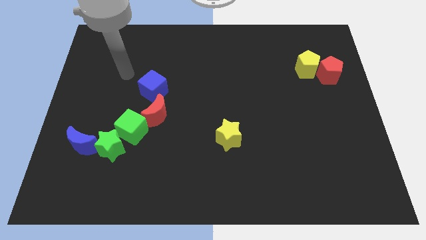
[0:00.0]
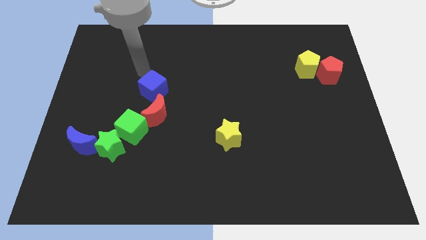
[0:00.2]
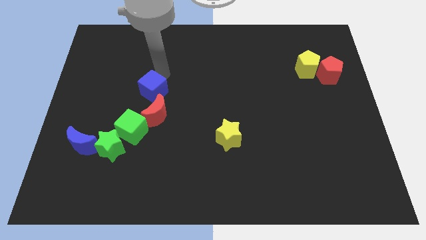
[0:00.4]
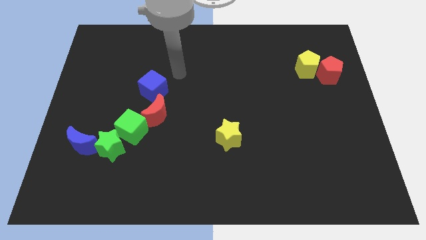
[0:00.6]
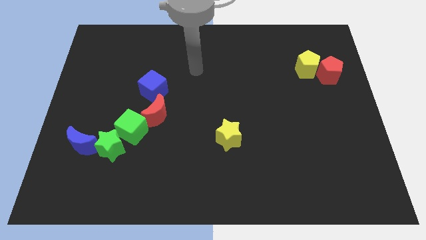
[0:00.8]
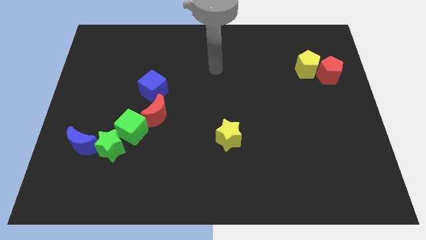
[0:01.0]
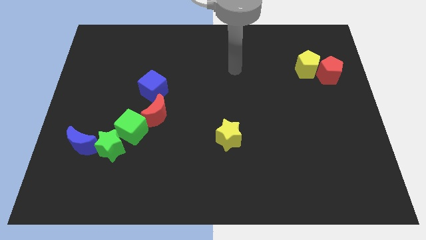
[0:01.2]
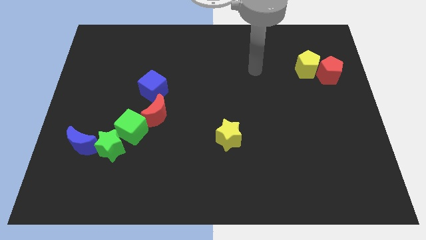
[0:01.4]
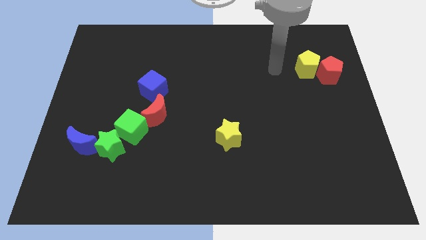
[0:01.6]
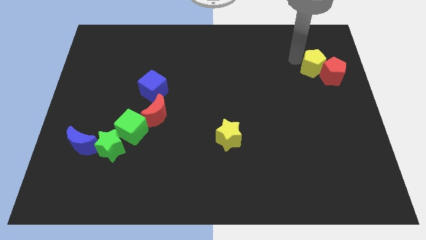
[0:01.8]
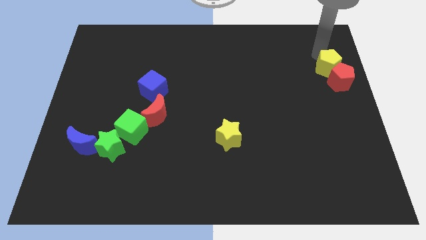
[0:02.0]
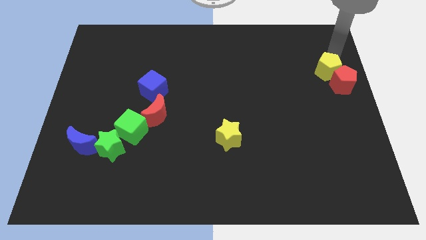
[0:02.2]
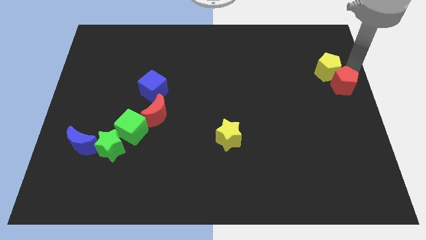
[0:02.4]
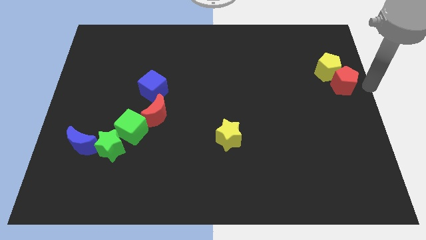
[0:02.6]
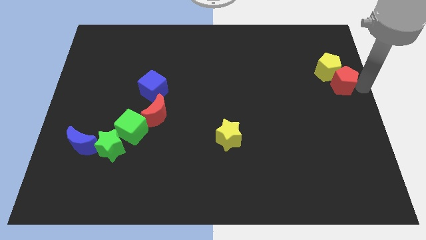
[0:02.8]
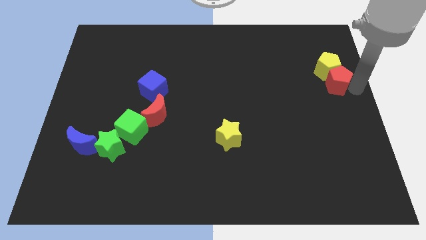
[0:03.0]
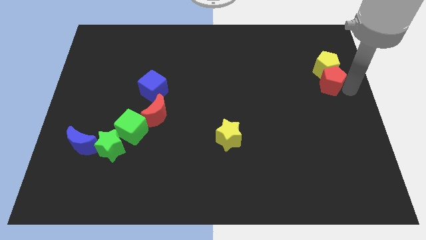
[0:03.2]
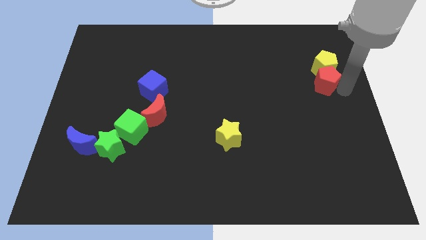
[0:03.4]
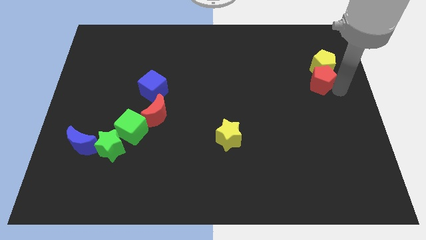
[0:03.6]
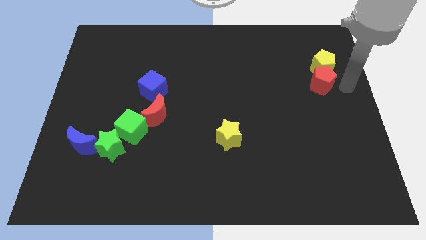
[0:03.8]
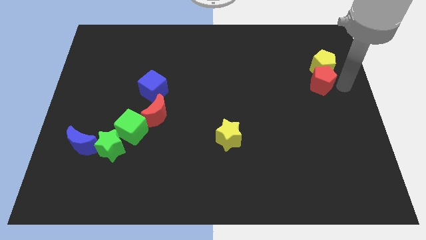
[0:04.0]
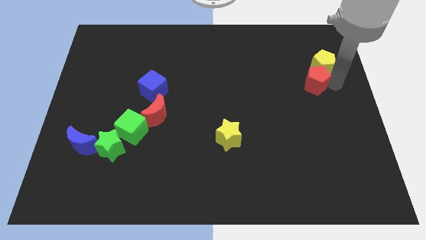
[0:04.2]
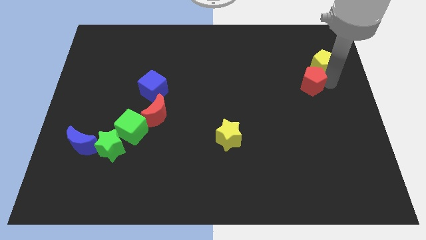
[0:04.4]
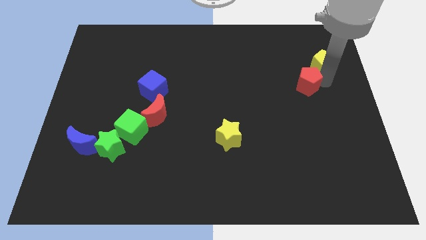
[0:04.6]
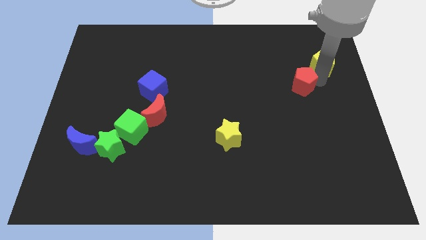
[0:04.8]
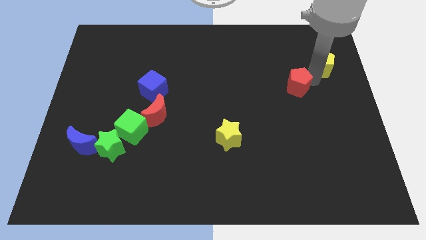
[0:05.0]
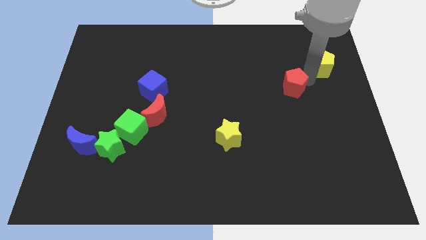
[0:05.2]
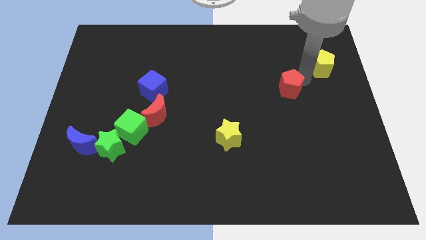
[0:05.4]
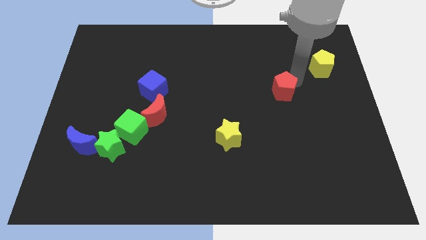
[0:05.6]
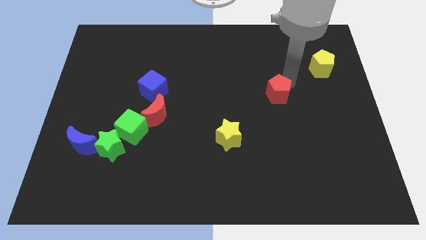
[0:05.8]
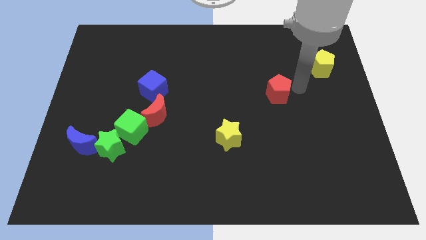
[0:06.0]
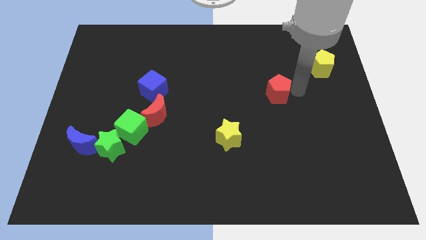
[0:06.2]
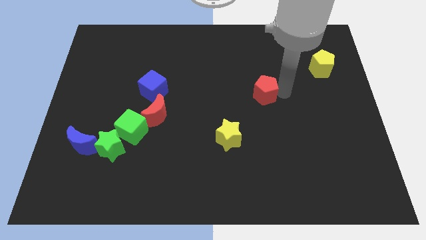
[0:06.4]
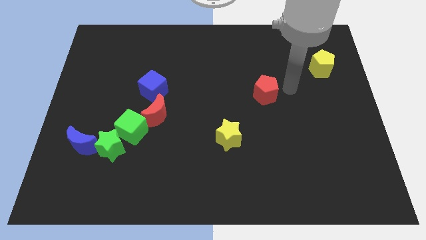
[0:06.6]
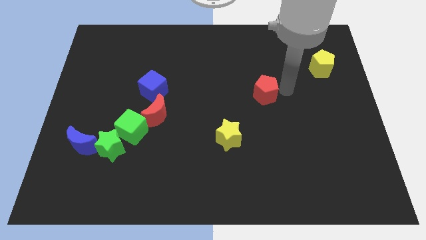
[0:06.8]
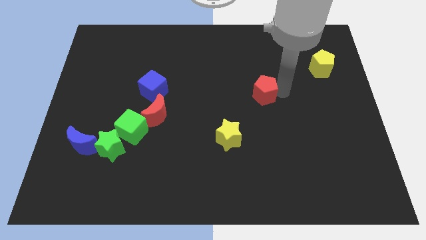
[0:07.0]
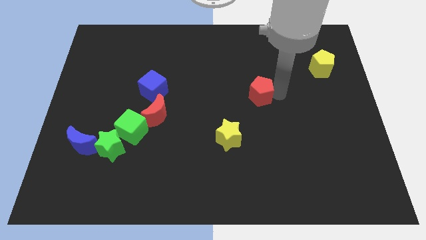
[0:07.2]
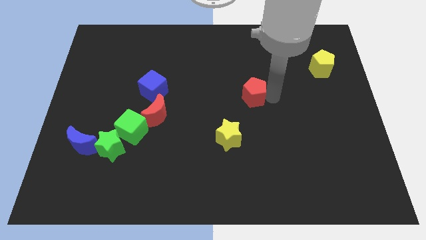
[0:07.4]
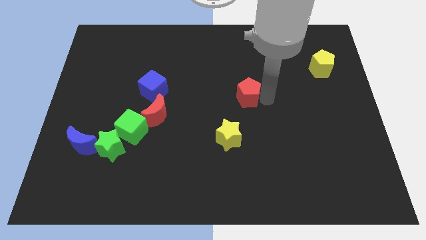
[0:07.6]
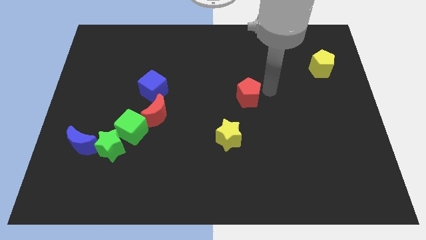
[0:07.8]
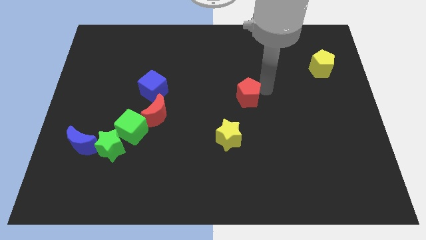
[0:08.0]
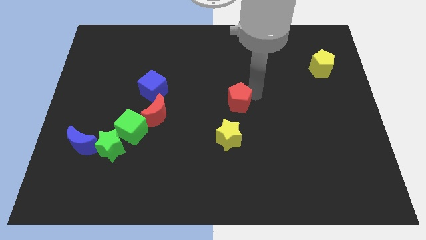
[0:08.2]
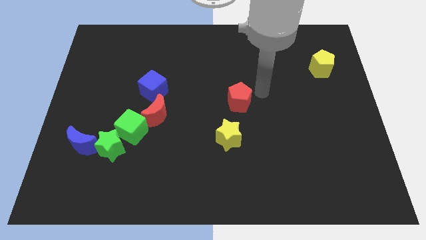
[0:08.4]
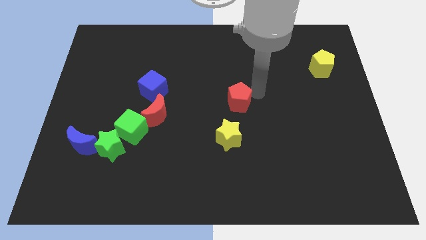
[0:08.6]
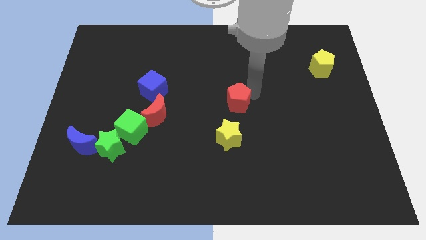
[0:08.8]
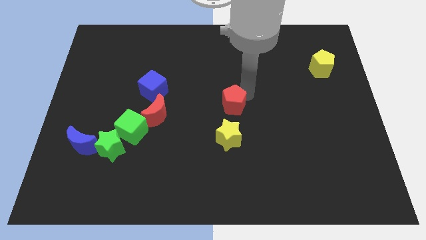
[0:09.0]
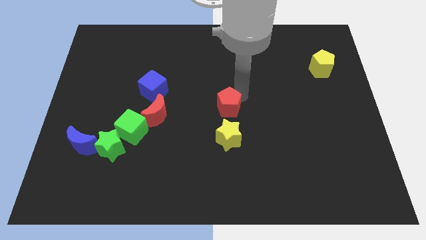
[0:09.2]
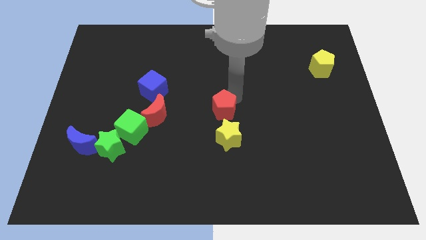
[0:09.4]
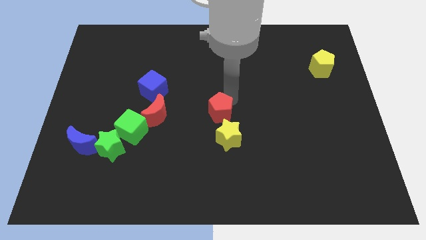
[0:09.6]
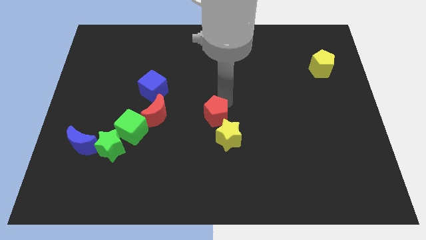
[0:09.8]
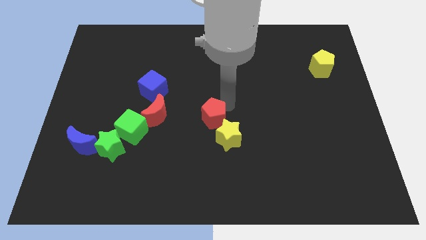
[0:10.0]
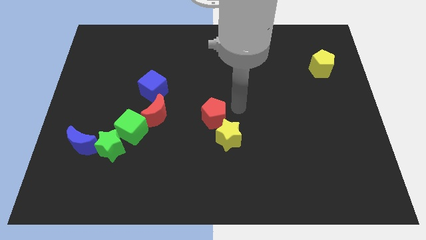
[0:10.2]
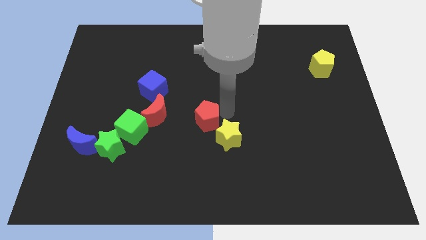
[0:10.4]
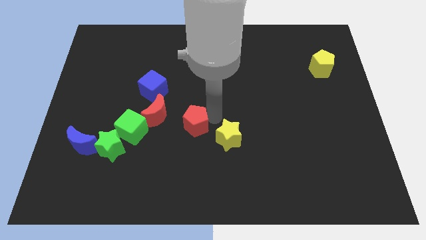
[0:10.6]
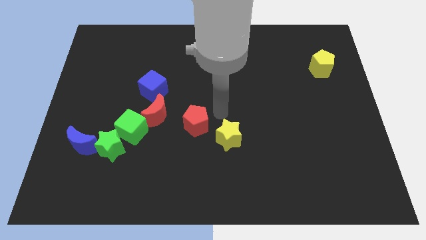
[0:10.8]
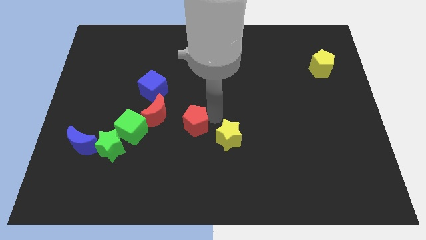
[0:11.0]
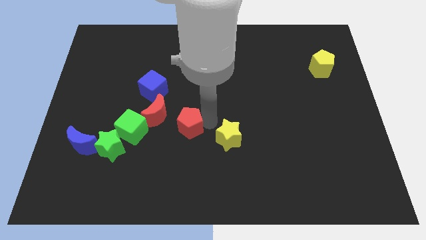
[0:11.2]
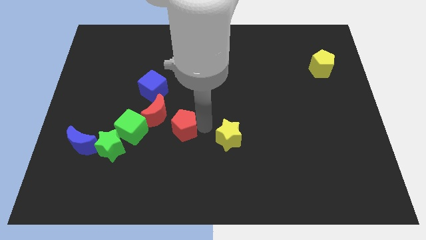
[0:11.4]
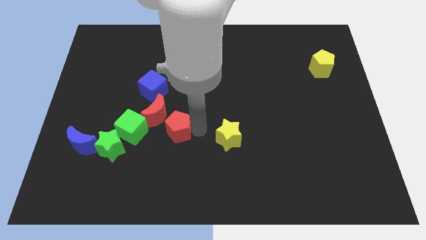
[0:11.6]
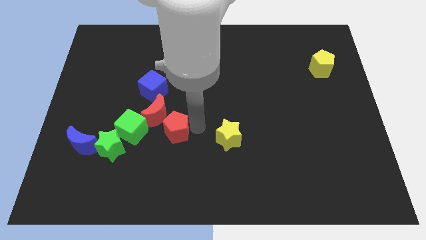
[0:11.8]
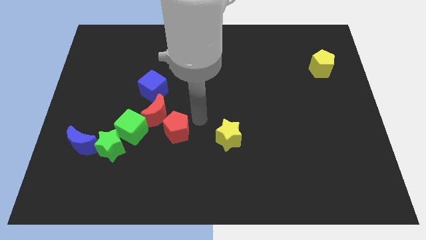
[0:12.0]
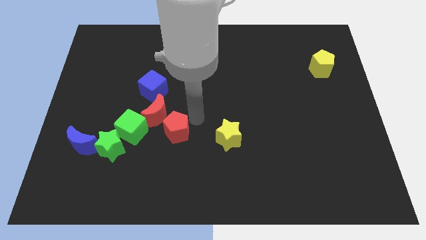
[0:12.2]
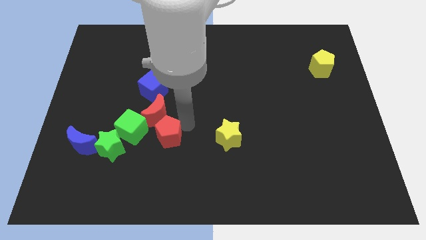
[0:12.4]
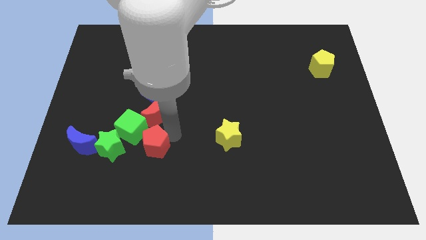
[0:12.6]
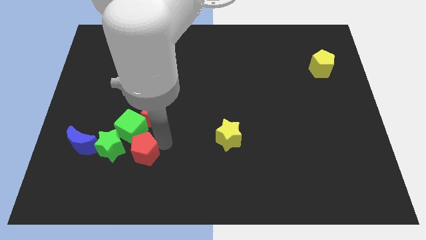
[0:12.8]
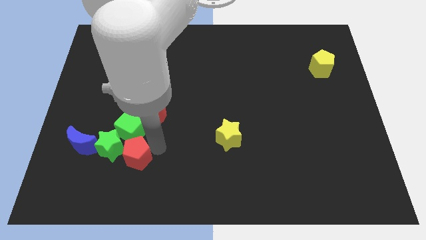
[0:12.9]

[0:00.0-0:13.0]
move the red pentagon close to the green star

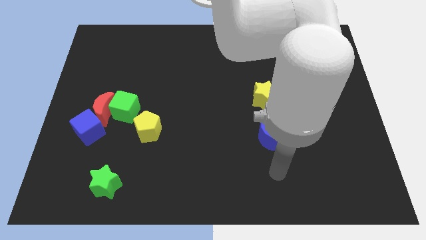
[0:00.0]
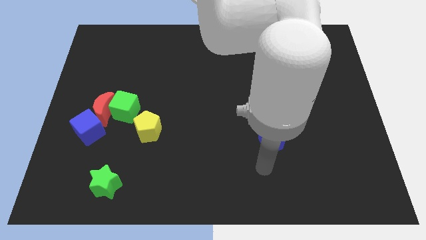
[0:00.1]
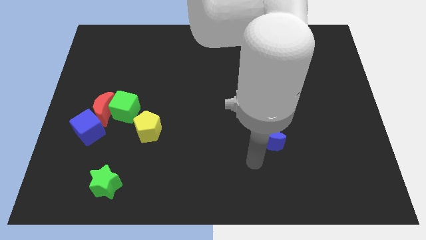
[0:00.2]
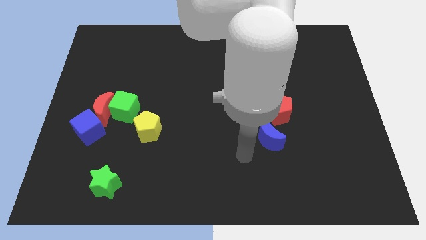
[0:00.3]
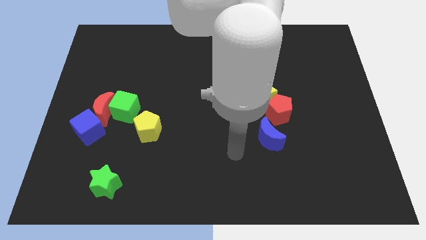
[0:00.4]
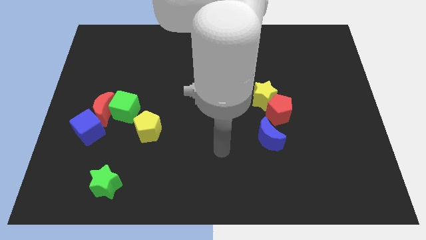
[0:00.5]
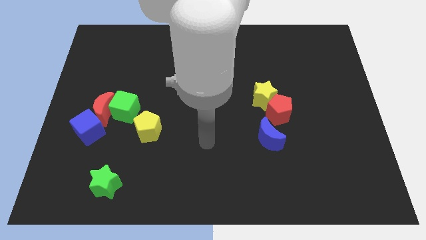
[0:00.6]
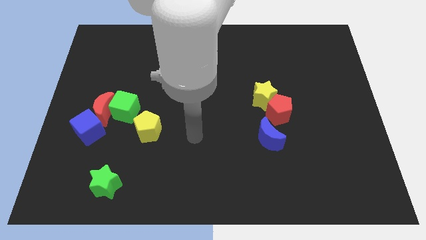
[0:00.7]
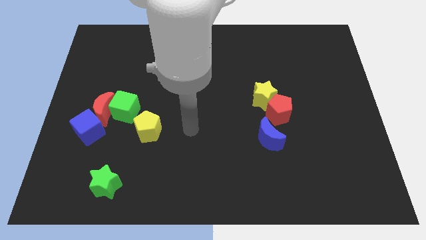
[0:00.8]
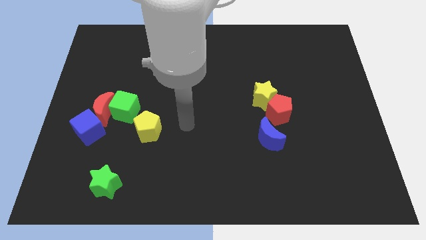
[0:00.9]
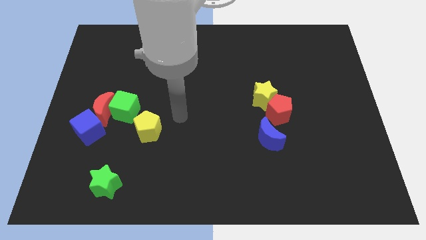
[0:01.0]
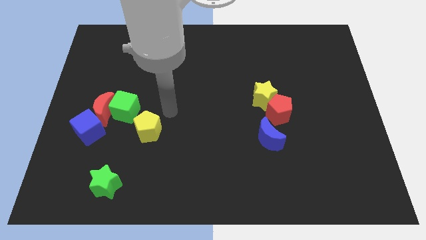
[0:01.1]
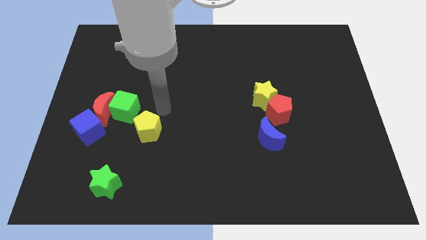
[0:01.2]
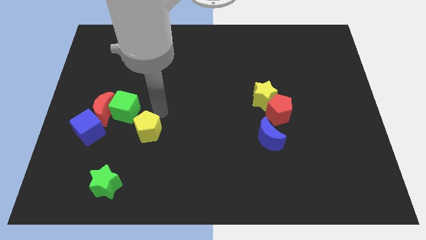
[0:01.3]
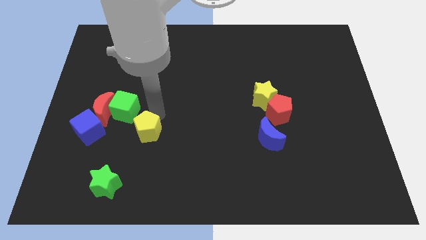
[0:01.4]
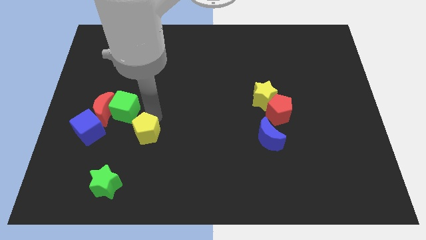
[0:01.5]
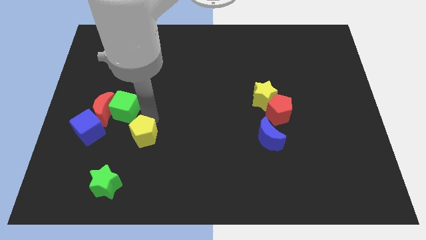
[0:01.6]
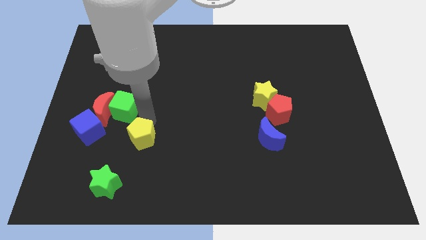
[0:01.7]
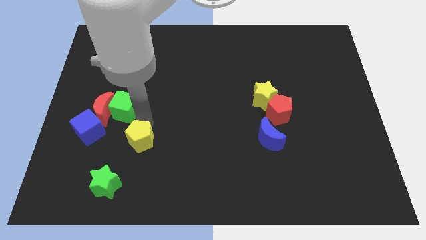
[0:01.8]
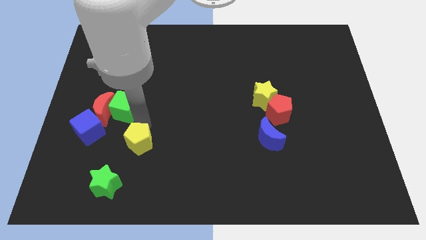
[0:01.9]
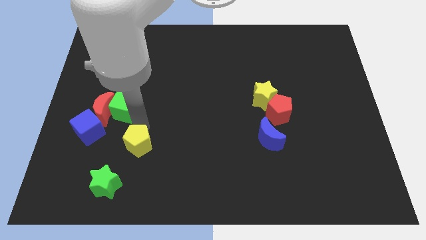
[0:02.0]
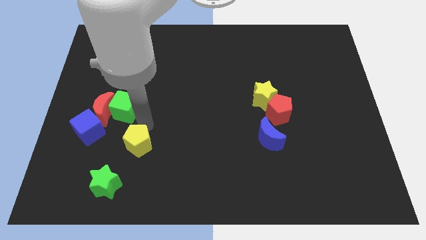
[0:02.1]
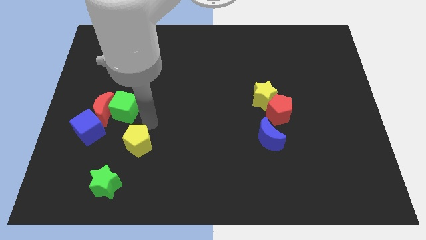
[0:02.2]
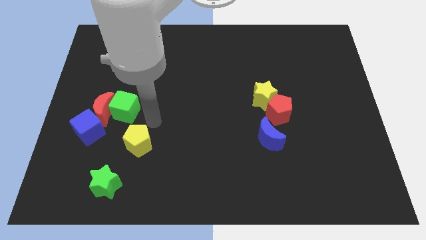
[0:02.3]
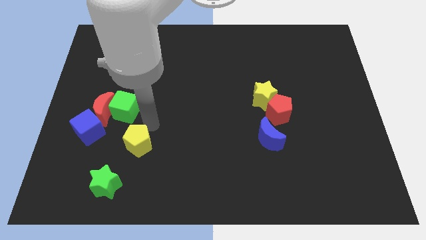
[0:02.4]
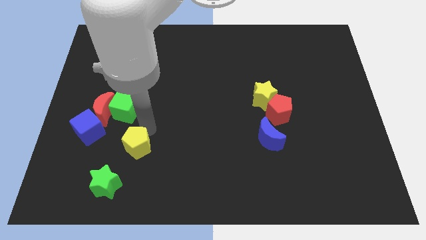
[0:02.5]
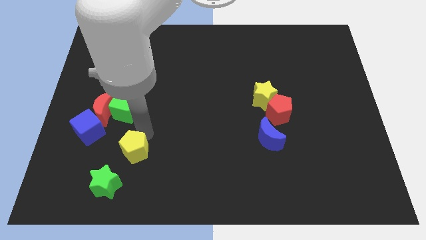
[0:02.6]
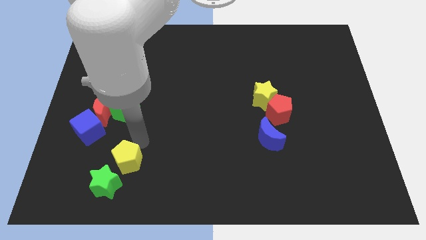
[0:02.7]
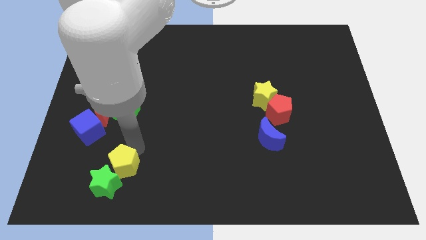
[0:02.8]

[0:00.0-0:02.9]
move the yellow pentagon close to the green star
